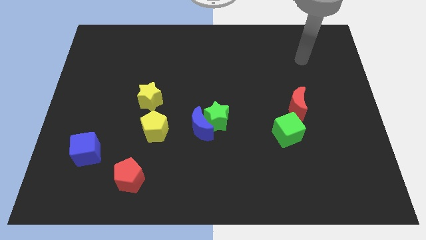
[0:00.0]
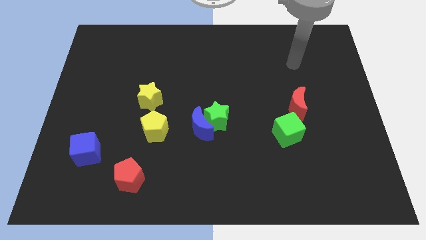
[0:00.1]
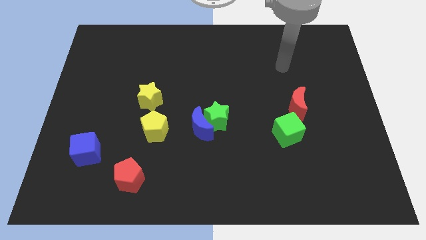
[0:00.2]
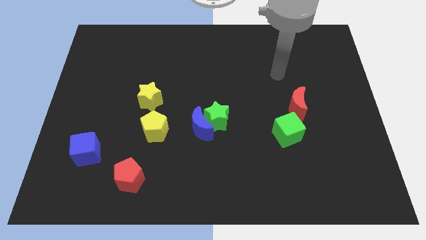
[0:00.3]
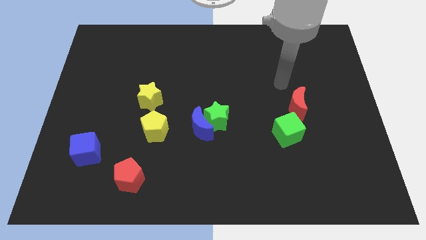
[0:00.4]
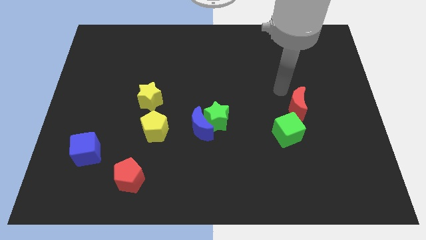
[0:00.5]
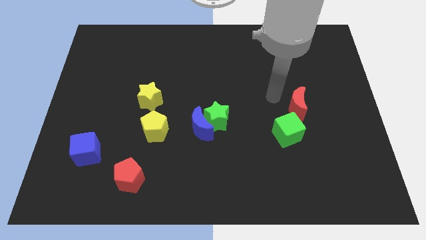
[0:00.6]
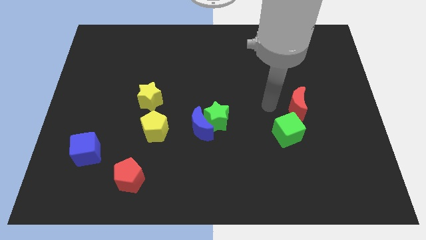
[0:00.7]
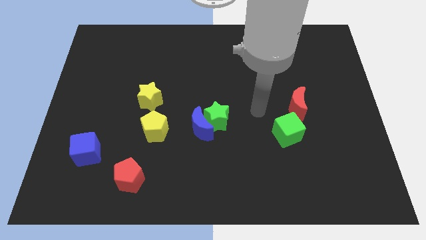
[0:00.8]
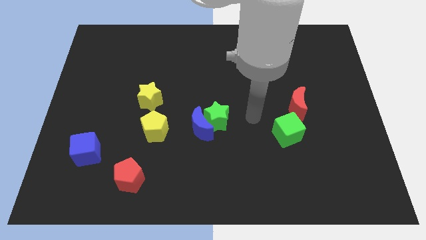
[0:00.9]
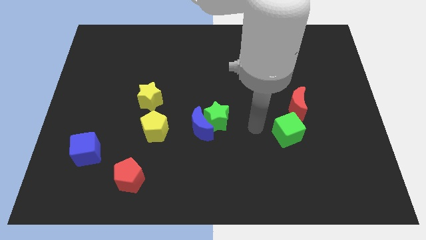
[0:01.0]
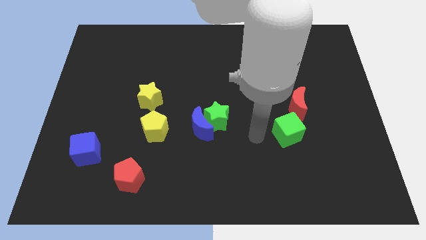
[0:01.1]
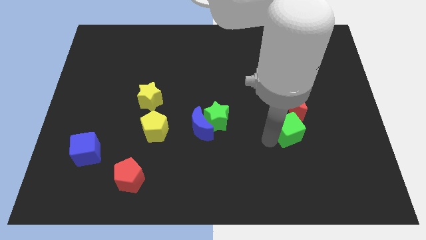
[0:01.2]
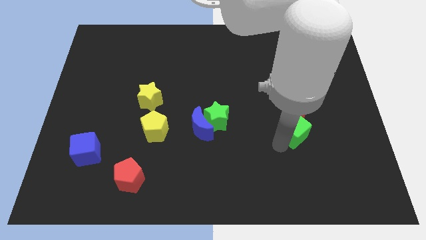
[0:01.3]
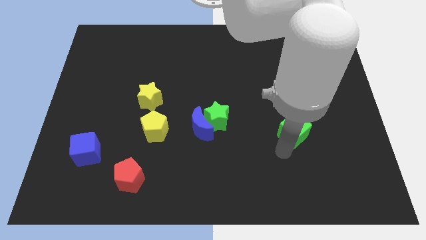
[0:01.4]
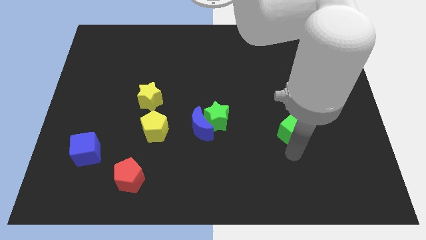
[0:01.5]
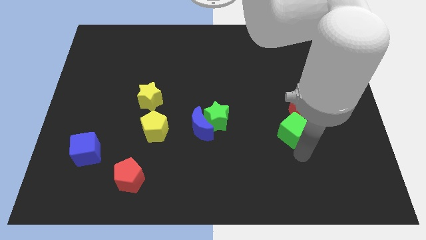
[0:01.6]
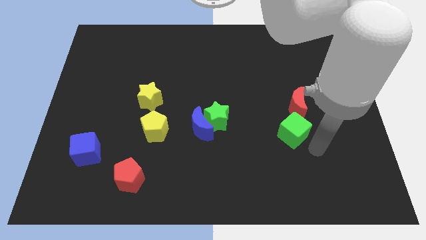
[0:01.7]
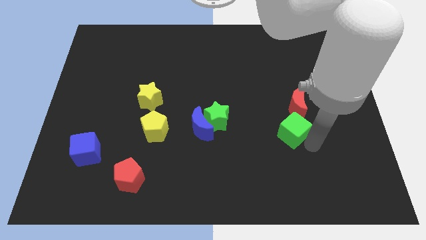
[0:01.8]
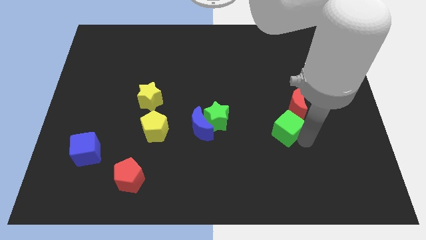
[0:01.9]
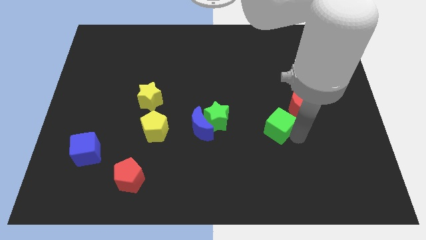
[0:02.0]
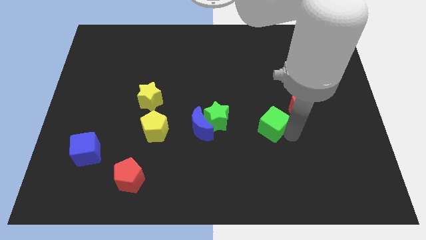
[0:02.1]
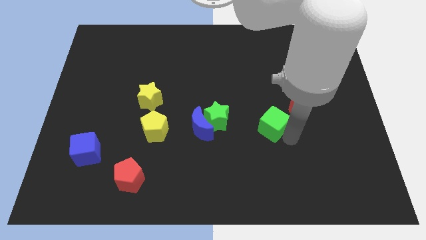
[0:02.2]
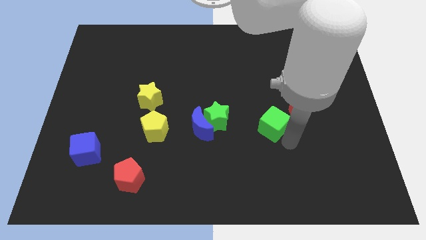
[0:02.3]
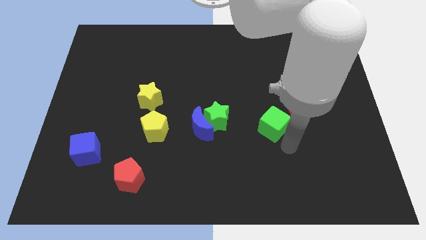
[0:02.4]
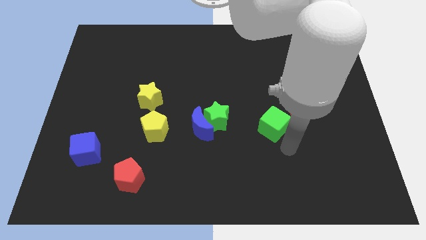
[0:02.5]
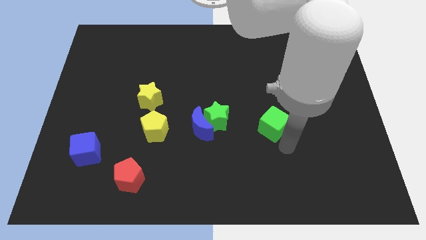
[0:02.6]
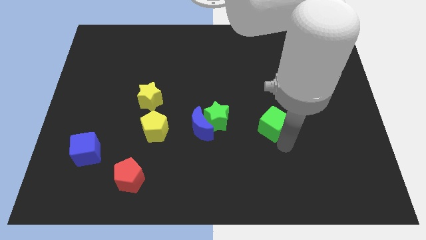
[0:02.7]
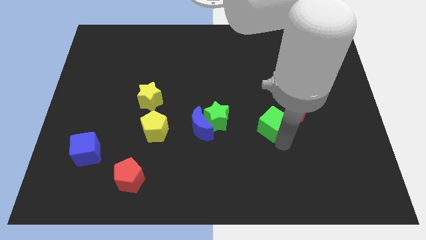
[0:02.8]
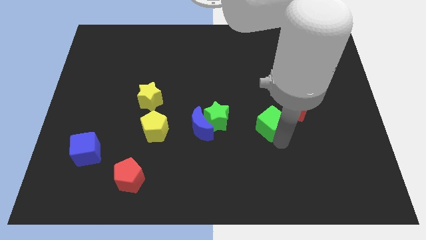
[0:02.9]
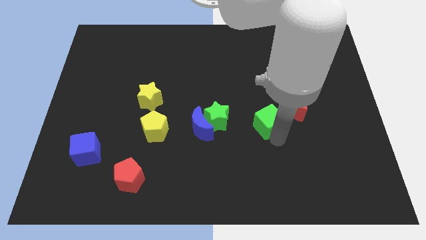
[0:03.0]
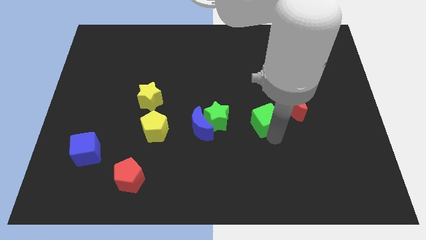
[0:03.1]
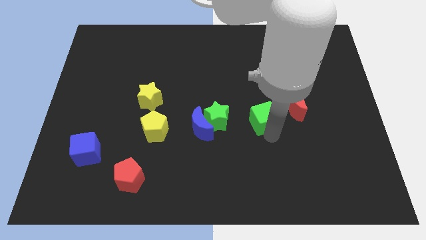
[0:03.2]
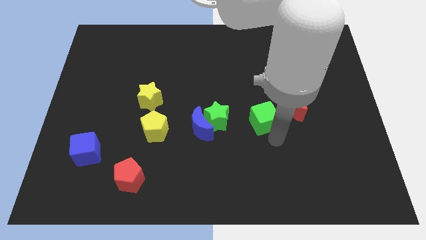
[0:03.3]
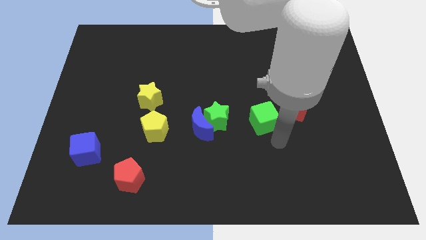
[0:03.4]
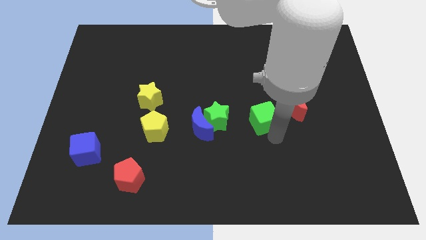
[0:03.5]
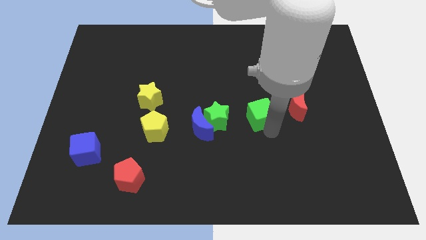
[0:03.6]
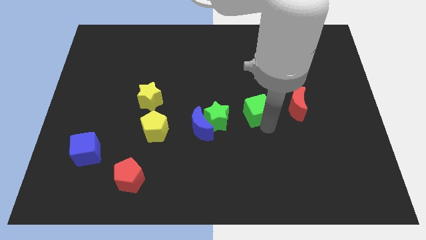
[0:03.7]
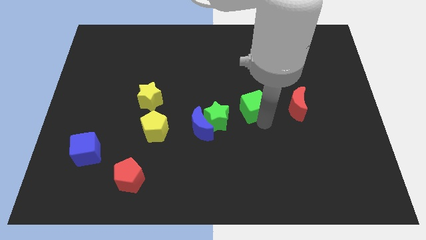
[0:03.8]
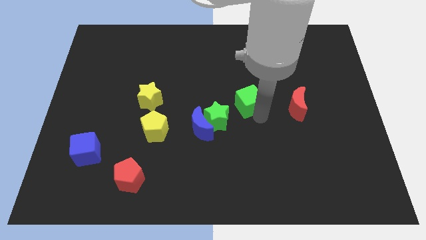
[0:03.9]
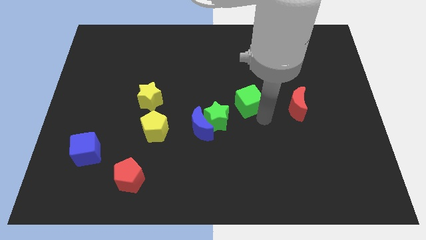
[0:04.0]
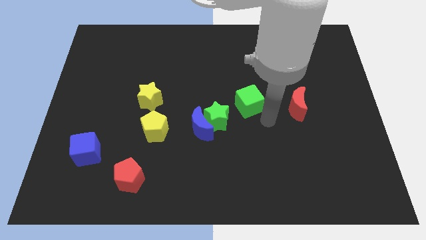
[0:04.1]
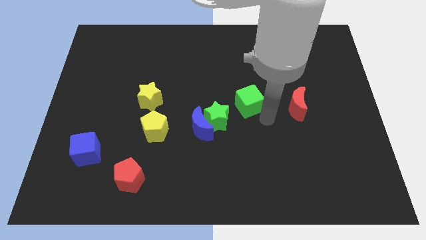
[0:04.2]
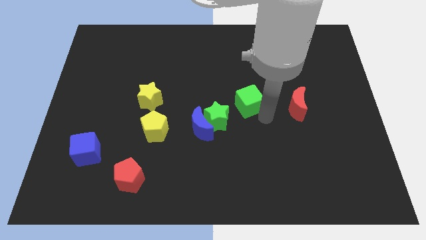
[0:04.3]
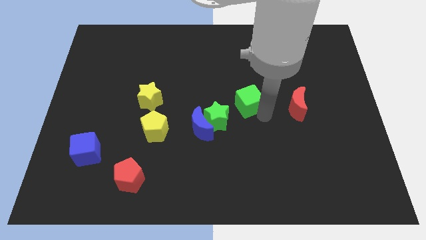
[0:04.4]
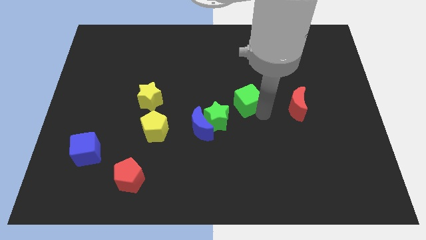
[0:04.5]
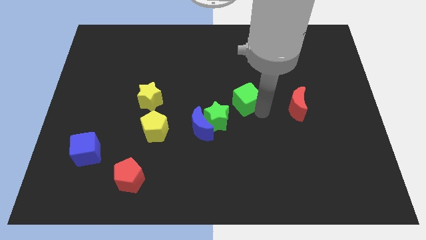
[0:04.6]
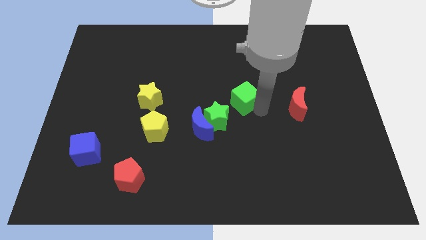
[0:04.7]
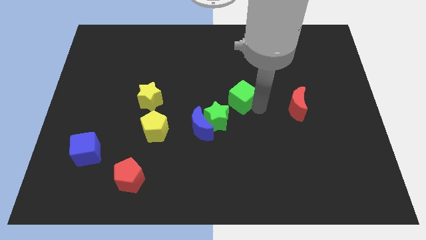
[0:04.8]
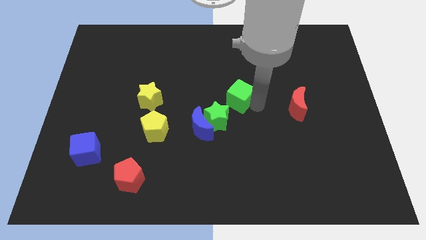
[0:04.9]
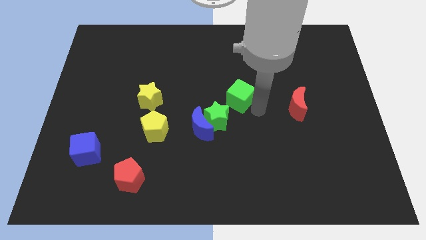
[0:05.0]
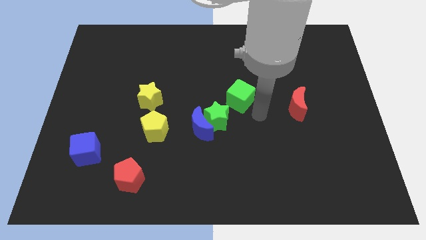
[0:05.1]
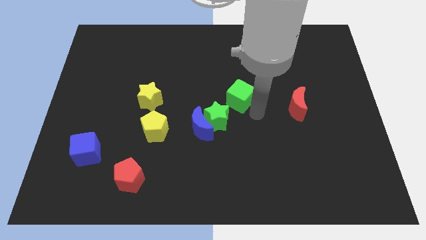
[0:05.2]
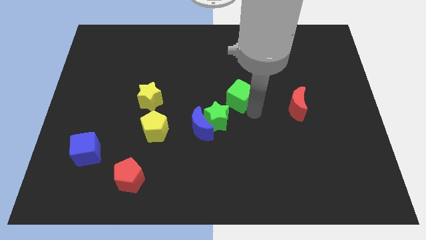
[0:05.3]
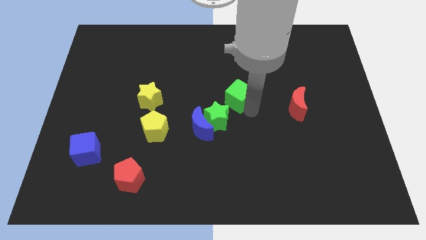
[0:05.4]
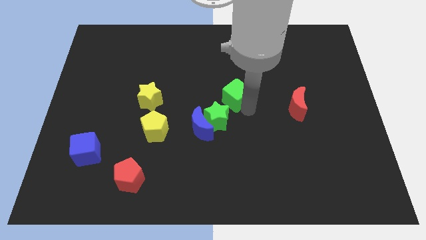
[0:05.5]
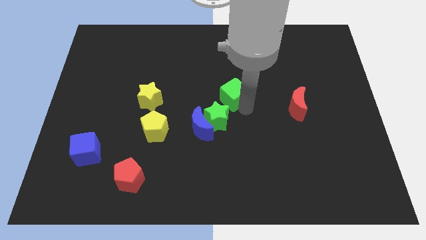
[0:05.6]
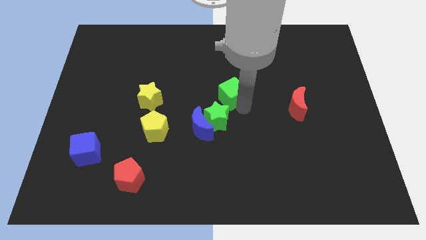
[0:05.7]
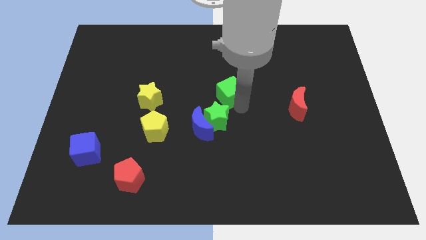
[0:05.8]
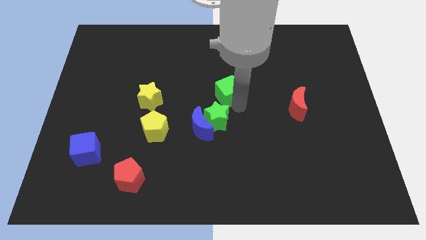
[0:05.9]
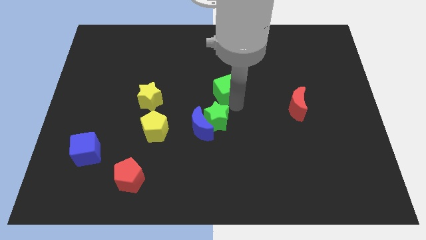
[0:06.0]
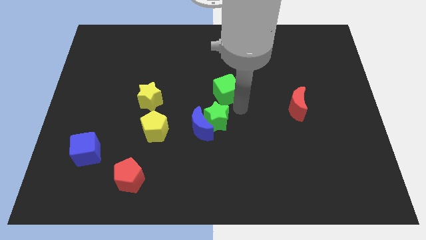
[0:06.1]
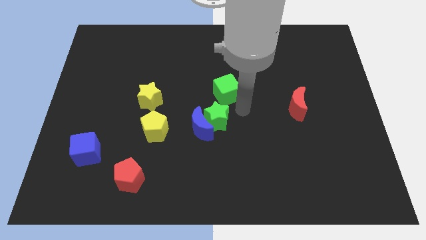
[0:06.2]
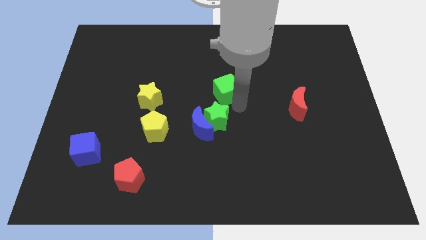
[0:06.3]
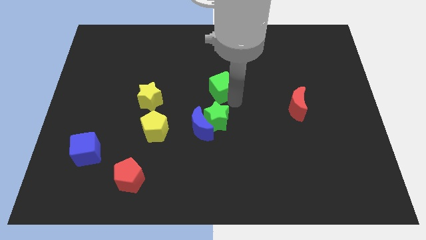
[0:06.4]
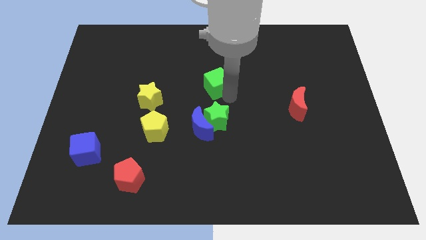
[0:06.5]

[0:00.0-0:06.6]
push the green cube upwards and to the left

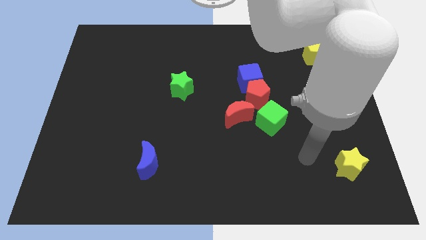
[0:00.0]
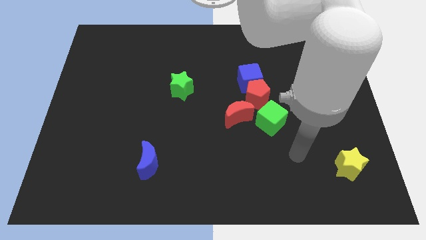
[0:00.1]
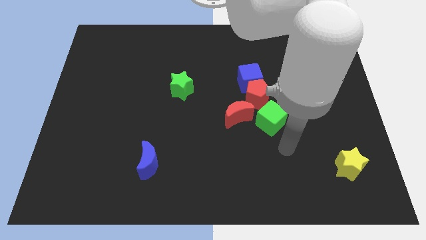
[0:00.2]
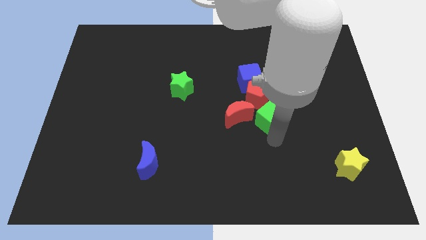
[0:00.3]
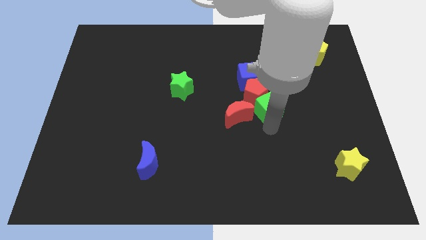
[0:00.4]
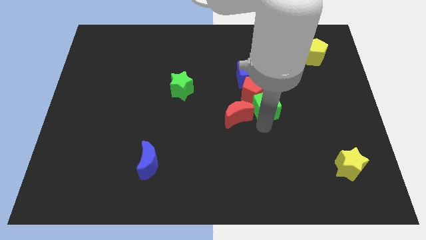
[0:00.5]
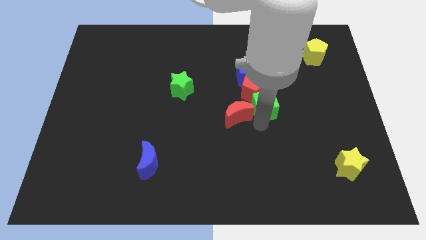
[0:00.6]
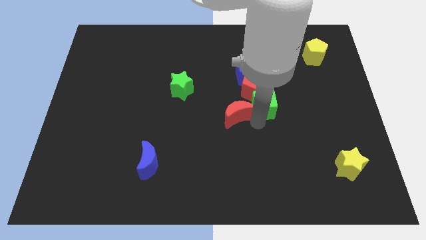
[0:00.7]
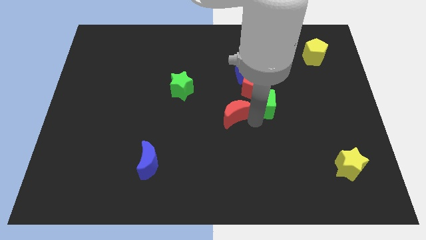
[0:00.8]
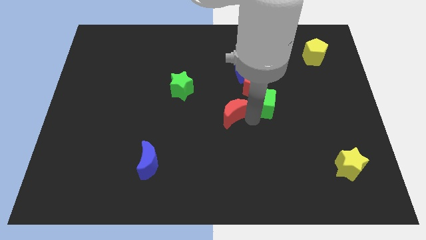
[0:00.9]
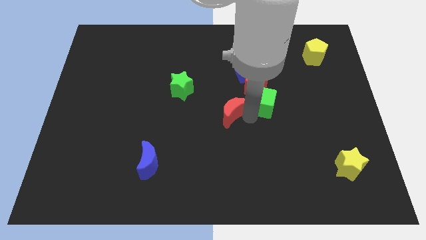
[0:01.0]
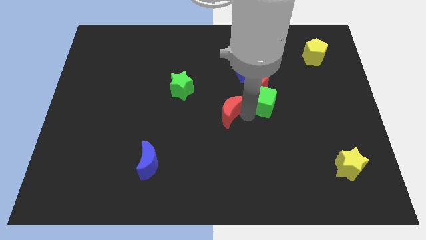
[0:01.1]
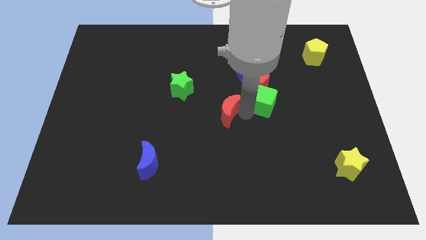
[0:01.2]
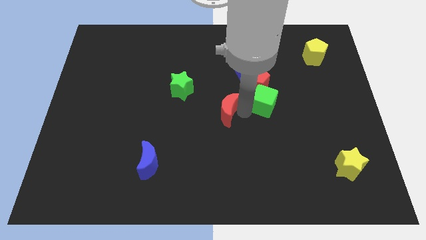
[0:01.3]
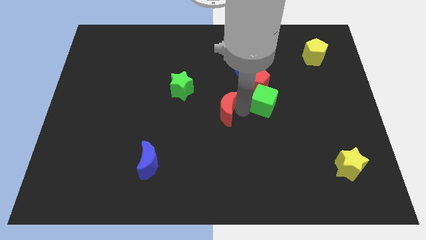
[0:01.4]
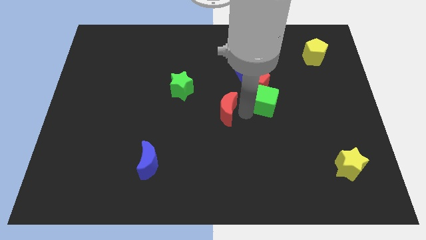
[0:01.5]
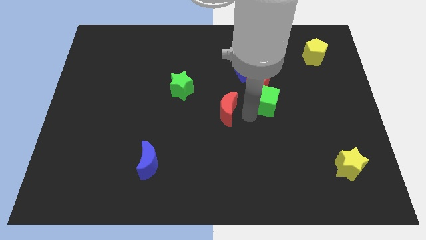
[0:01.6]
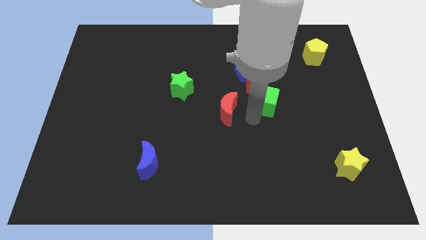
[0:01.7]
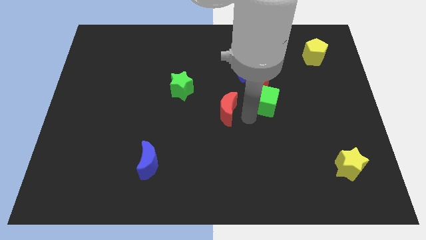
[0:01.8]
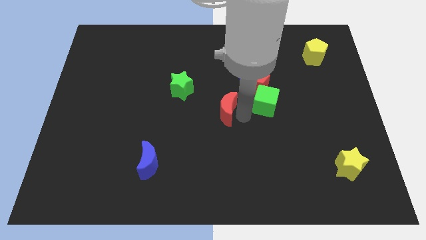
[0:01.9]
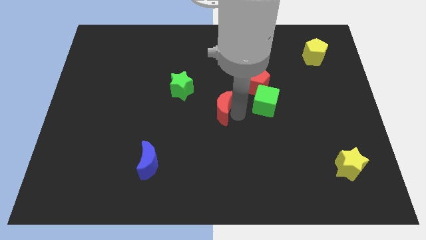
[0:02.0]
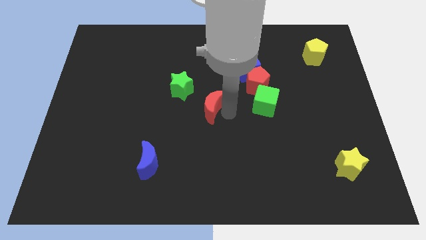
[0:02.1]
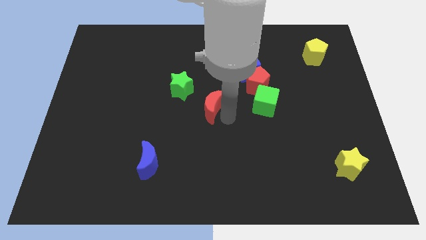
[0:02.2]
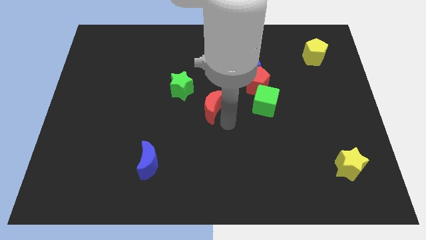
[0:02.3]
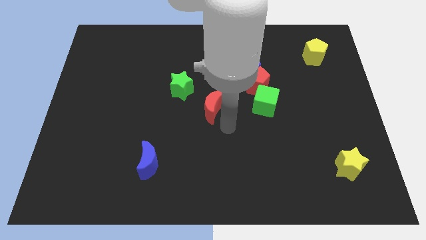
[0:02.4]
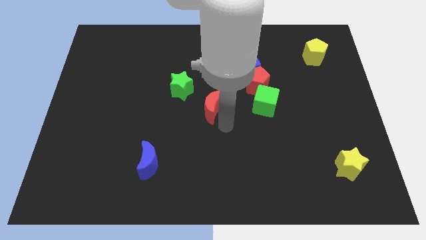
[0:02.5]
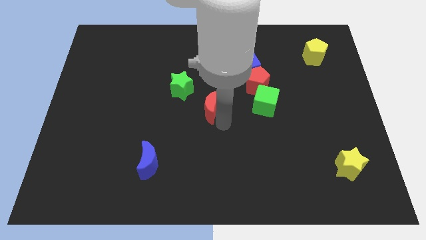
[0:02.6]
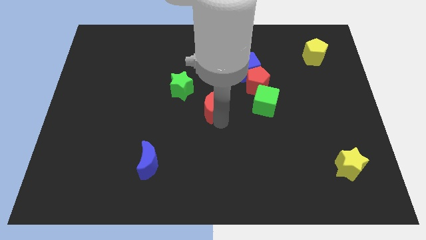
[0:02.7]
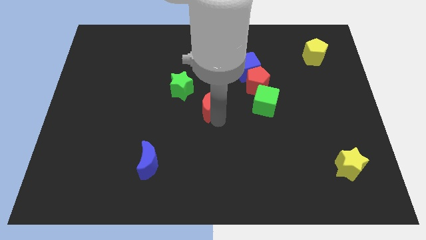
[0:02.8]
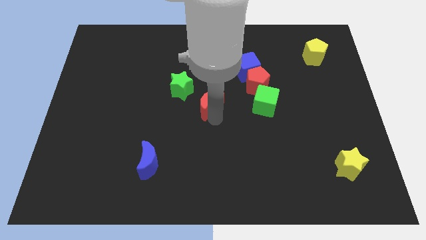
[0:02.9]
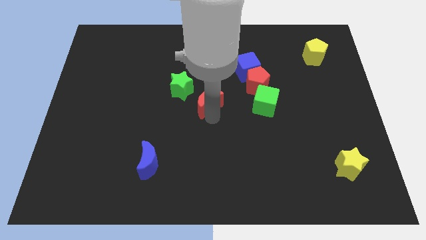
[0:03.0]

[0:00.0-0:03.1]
slightly slide the red moon diagonally up and left
